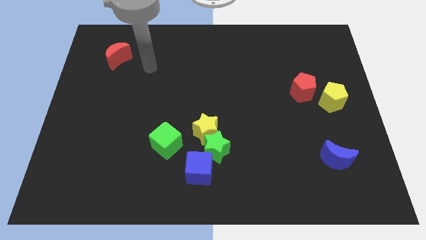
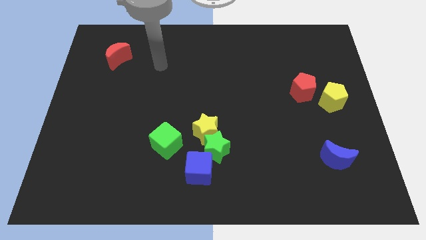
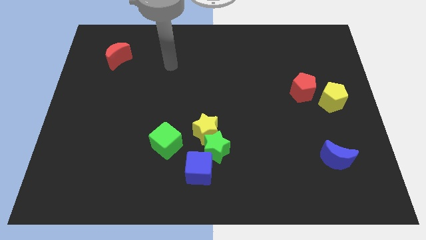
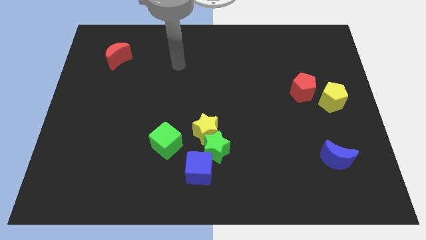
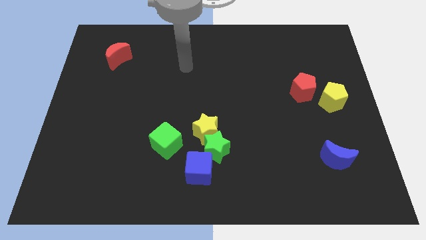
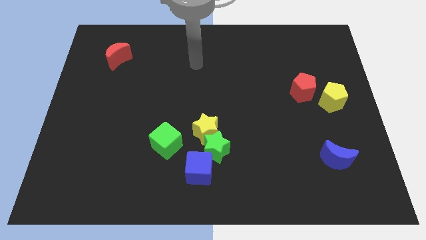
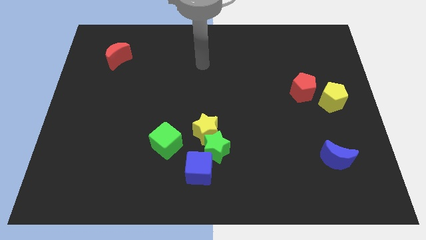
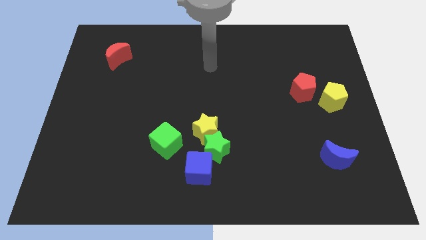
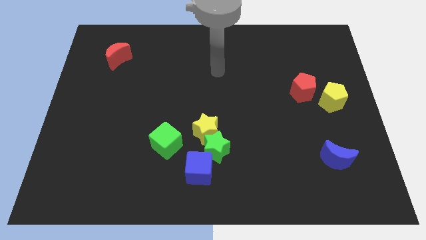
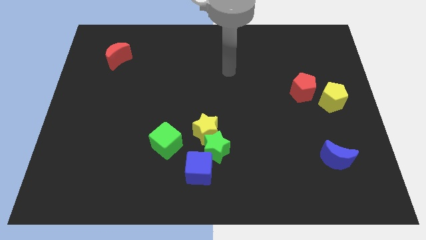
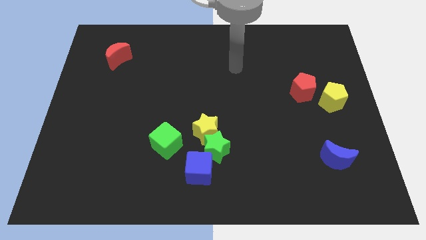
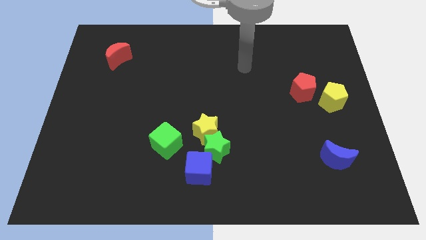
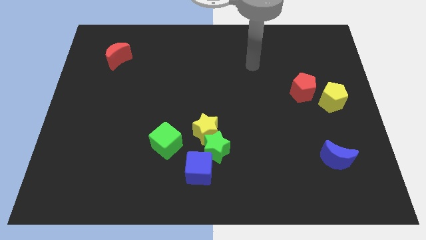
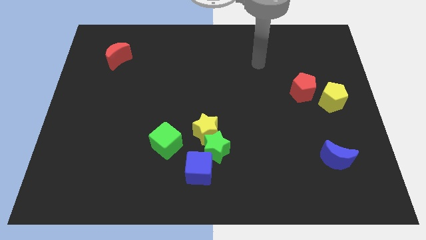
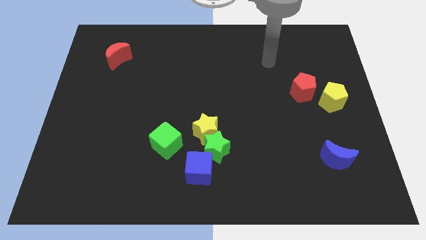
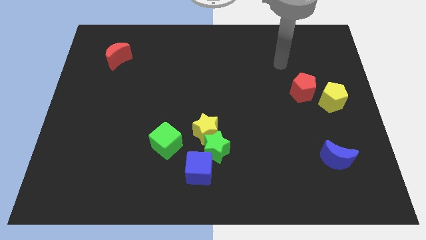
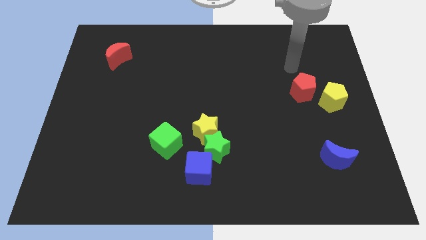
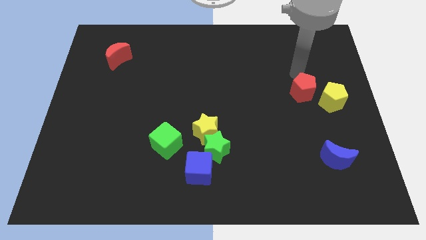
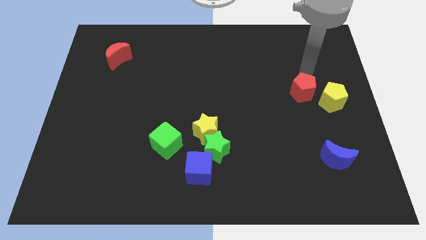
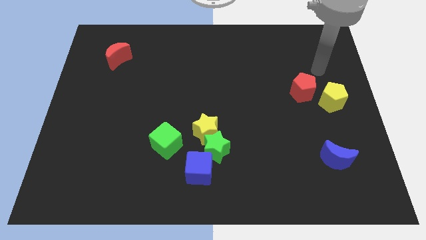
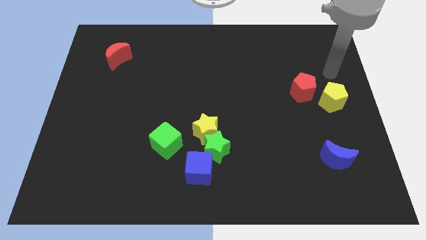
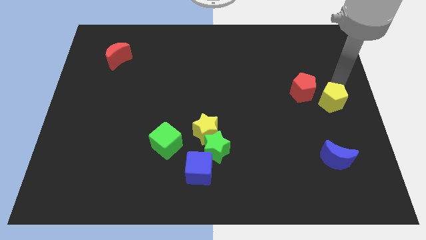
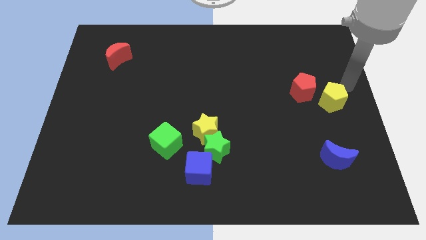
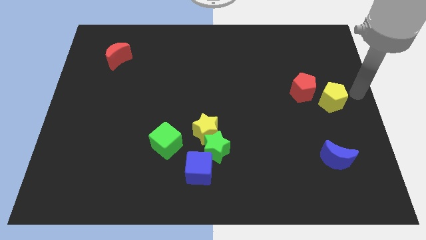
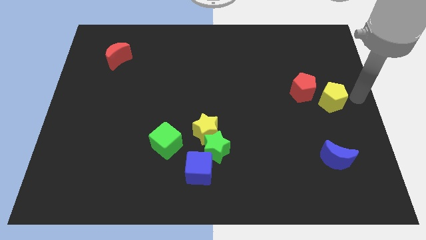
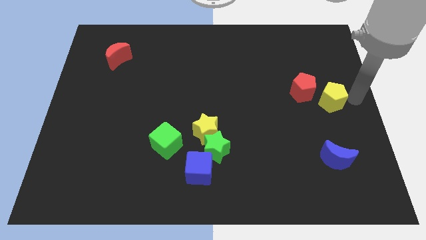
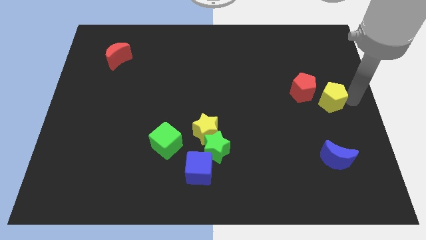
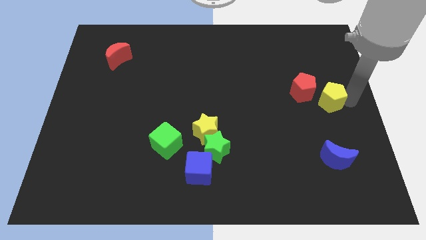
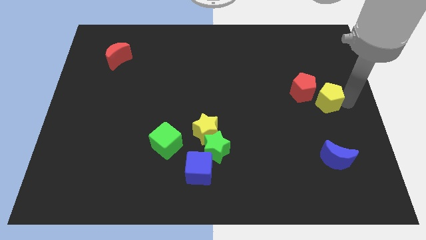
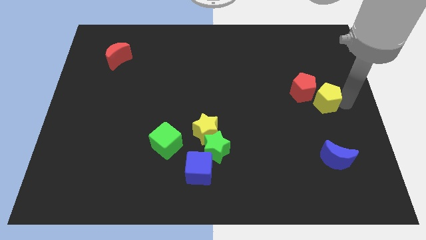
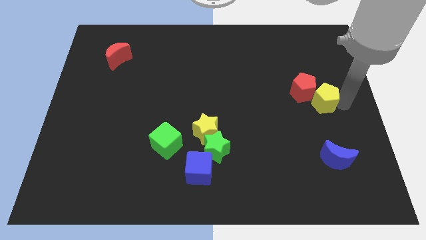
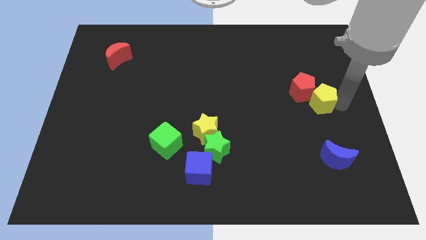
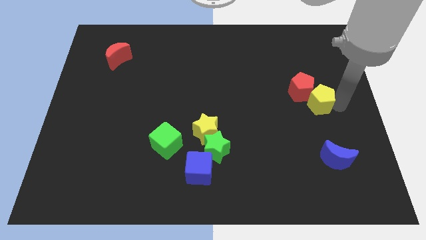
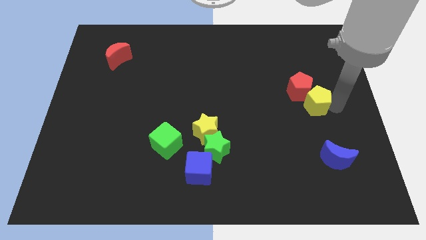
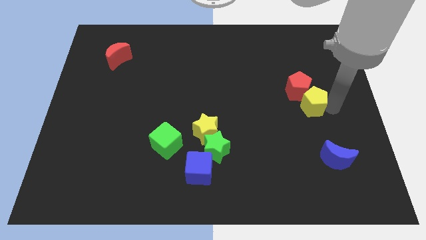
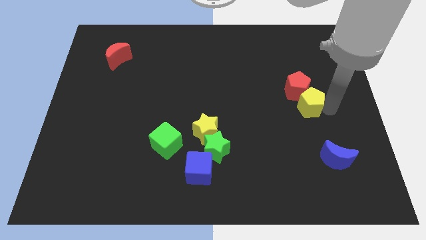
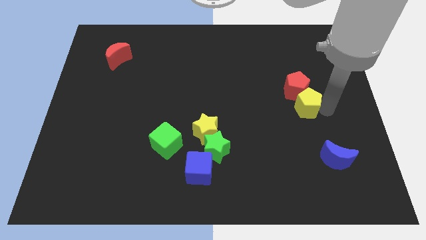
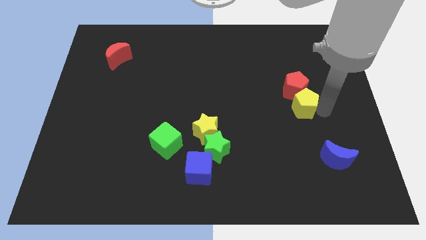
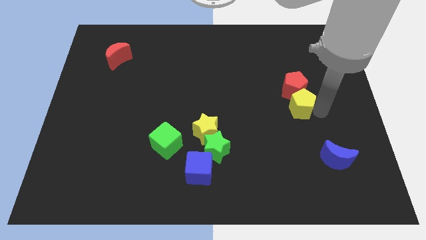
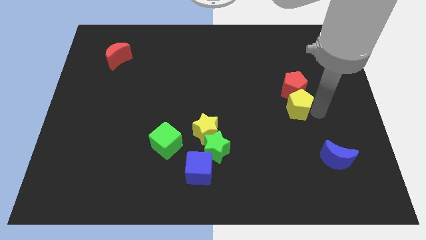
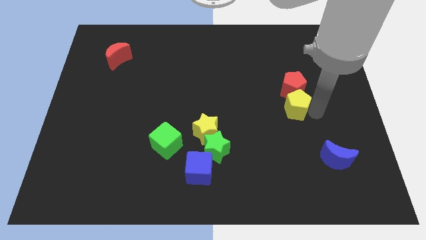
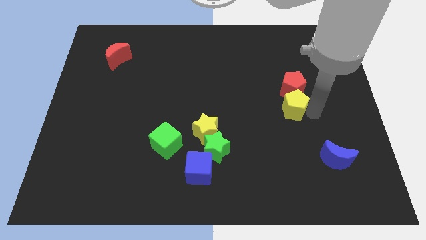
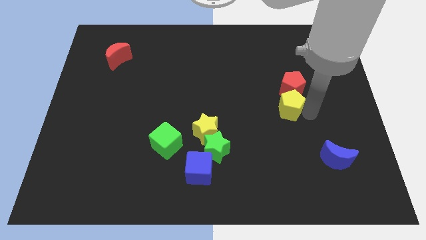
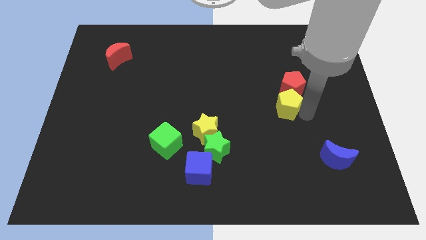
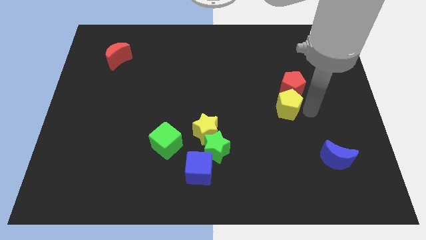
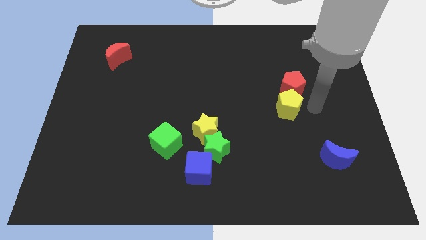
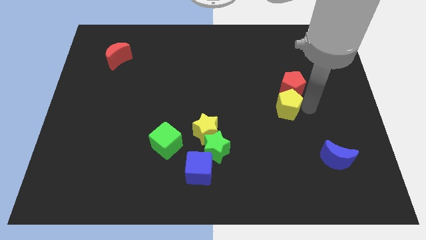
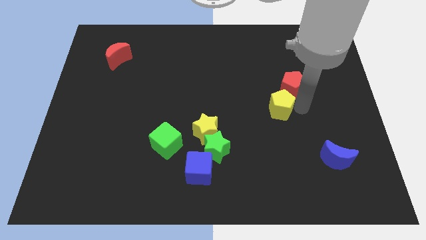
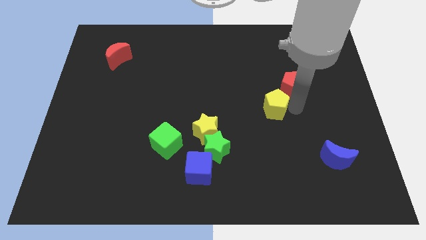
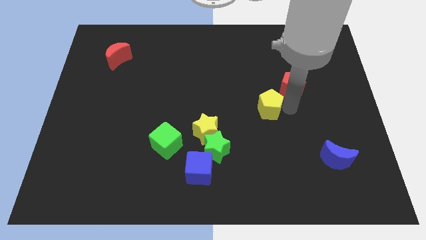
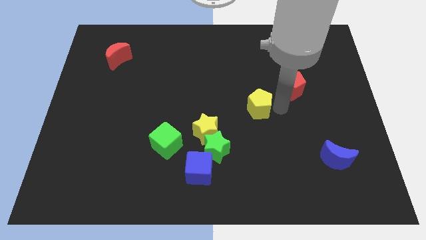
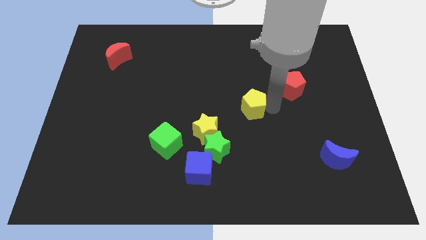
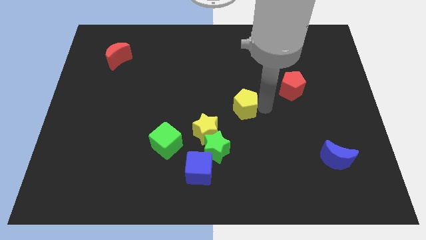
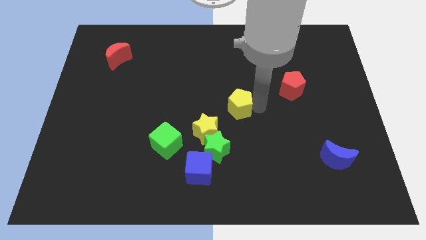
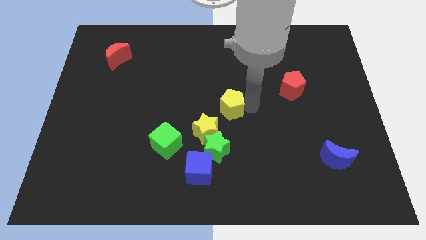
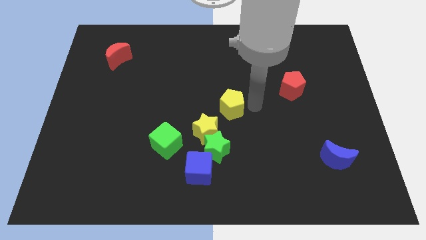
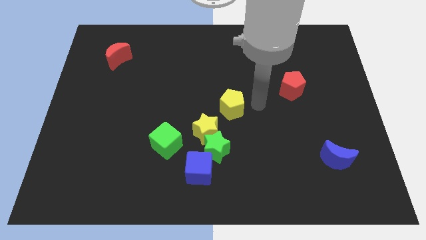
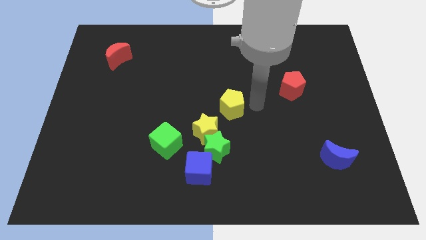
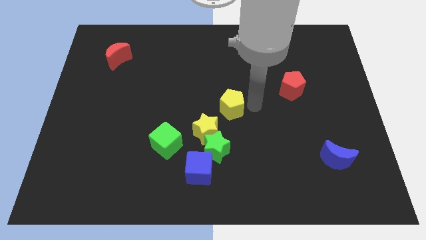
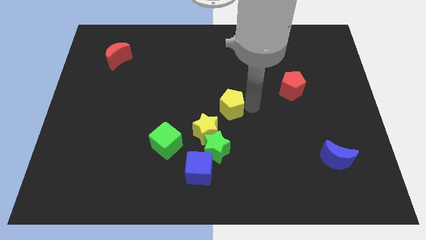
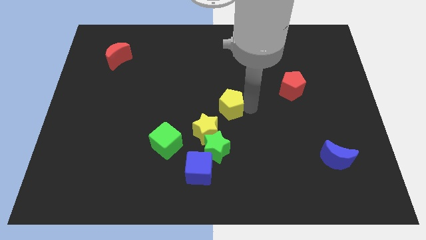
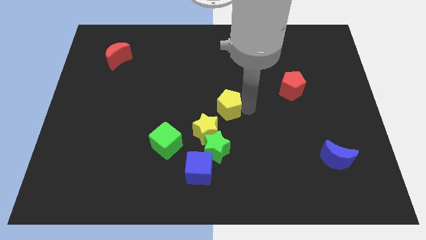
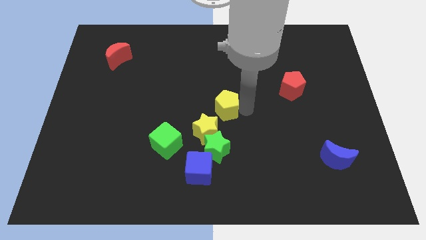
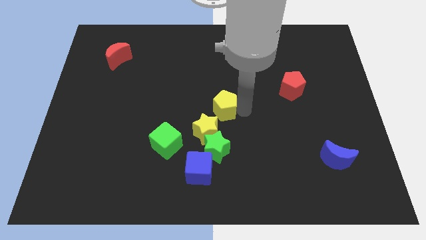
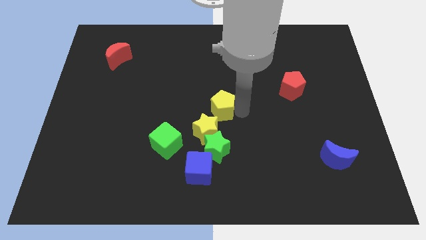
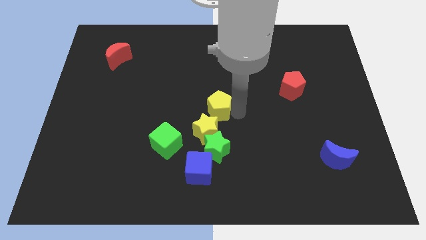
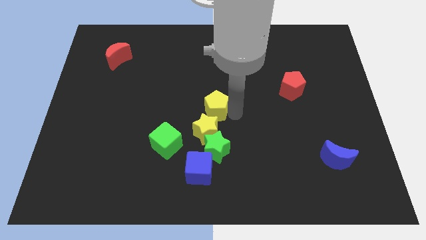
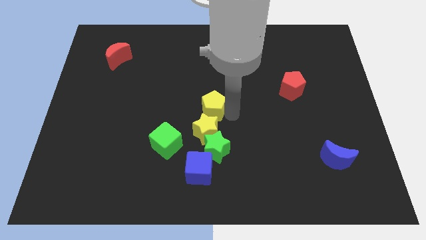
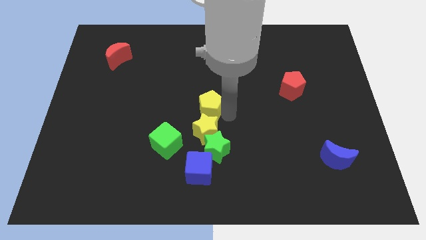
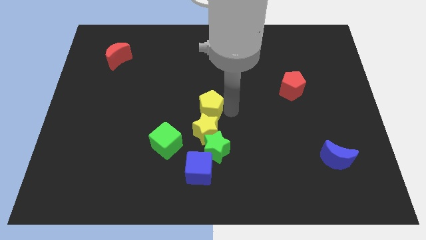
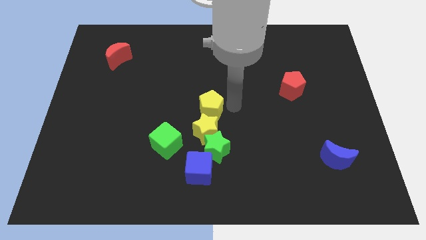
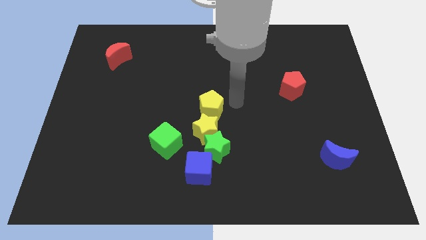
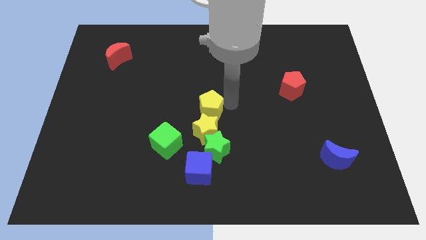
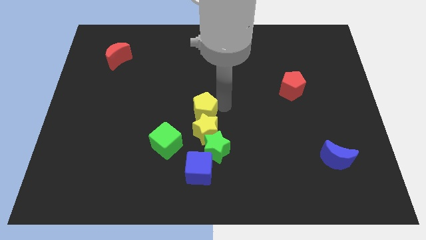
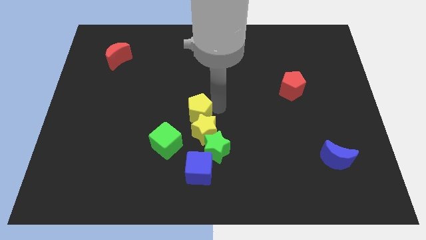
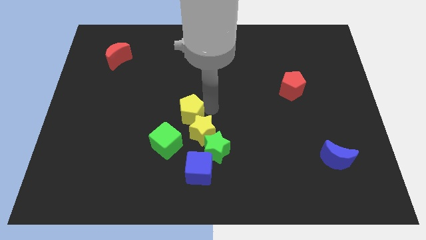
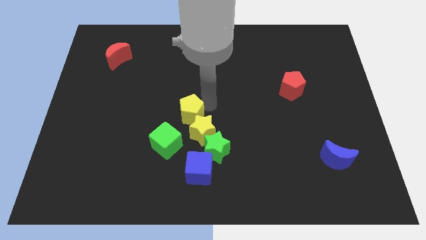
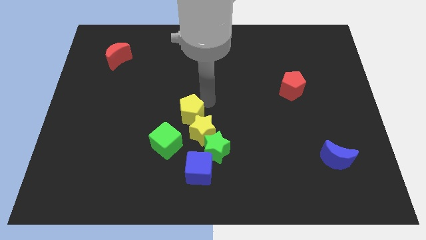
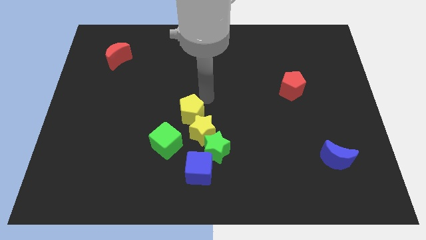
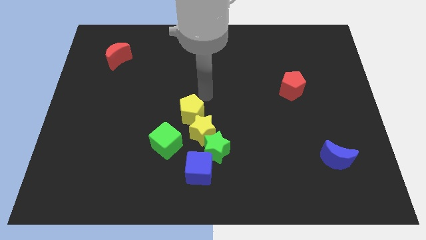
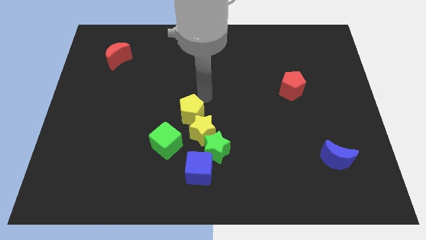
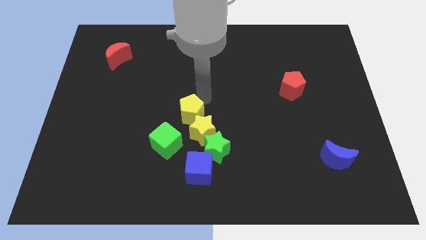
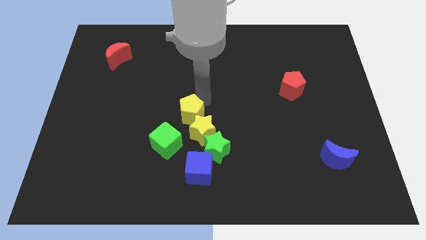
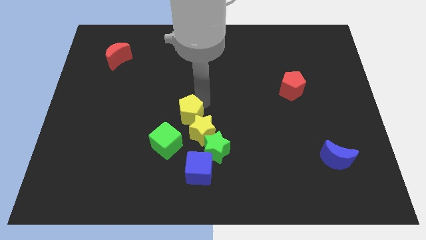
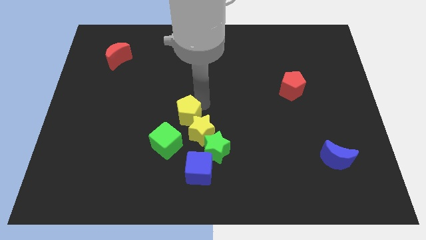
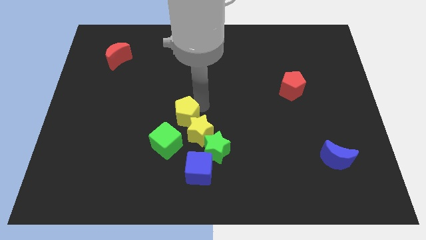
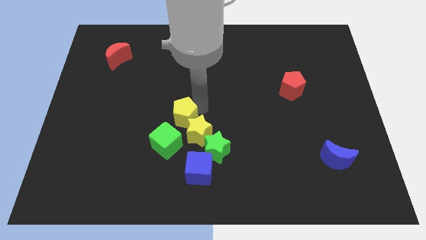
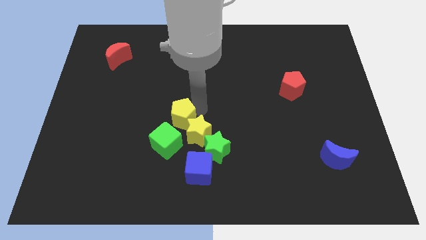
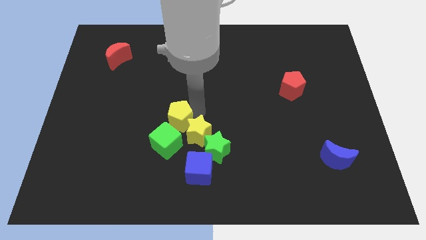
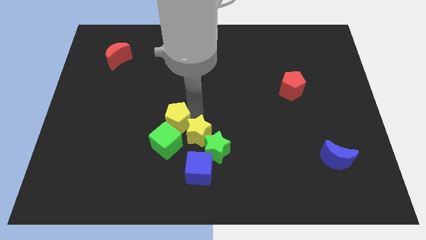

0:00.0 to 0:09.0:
move the yellow pentagon towards the green cube
